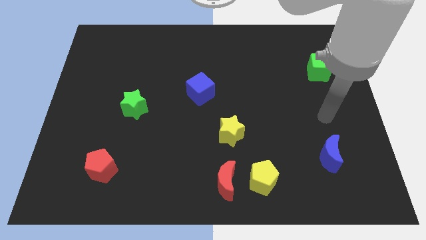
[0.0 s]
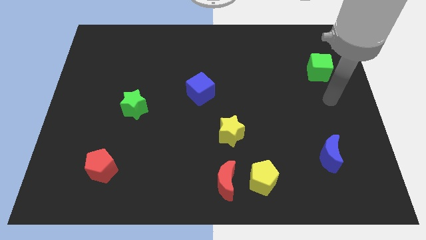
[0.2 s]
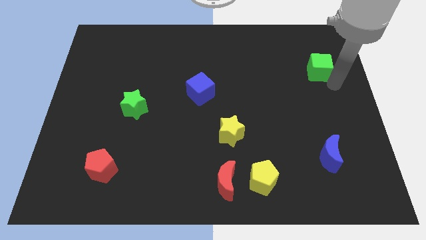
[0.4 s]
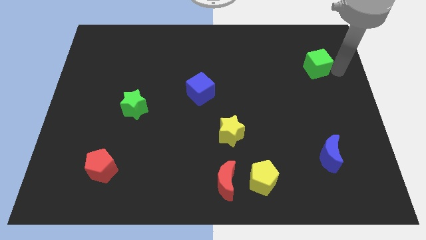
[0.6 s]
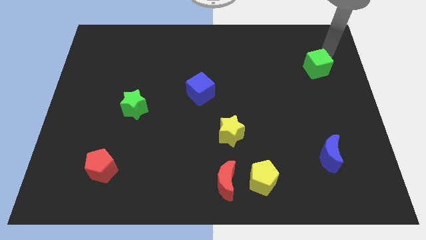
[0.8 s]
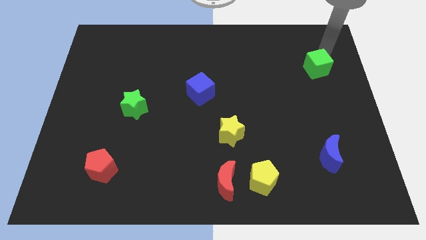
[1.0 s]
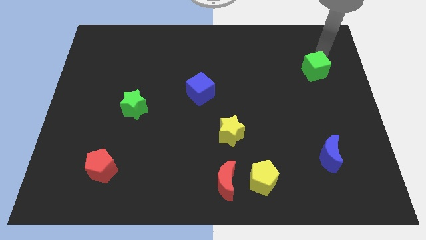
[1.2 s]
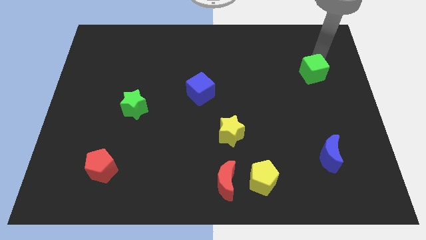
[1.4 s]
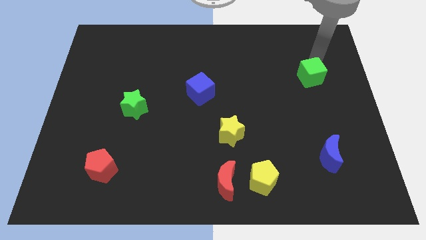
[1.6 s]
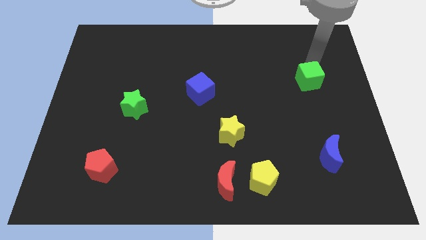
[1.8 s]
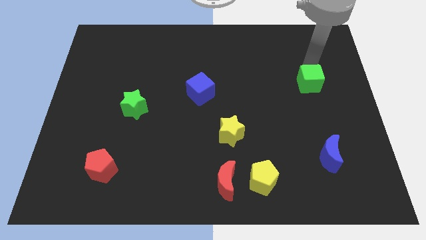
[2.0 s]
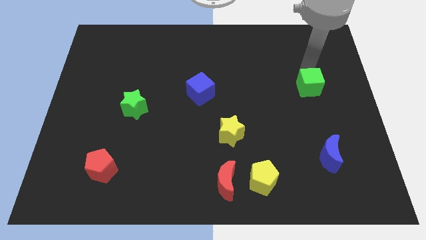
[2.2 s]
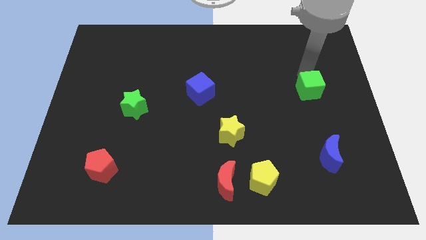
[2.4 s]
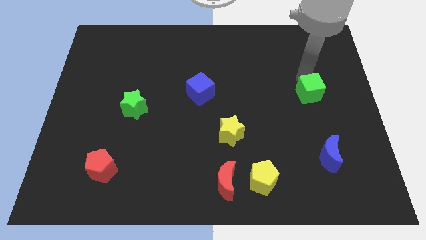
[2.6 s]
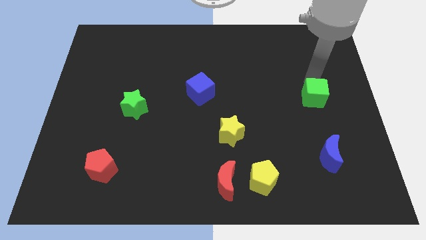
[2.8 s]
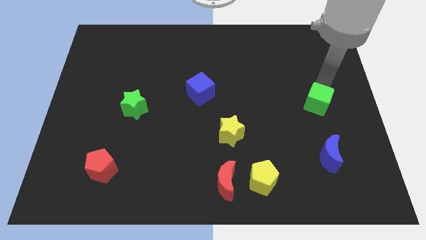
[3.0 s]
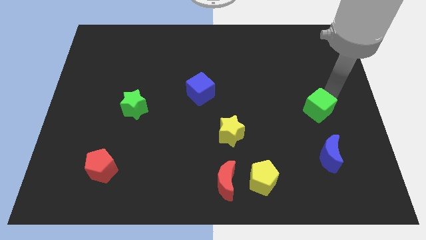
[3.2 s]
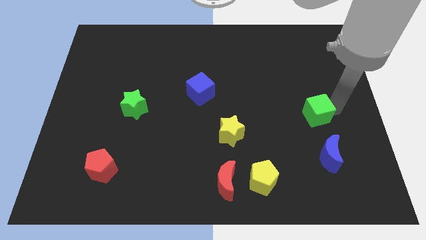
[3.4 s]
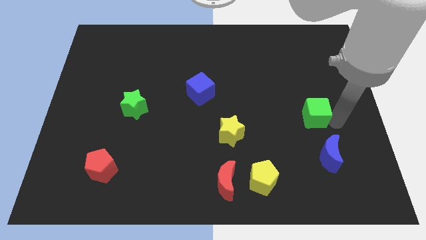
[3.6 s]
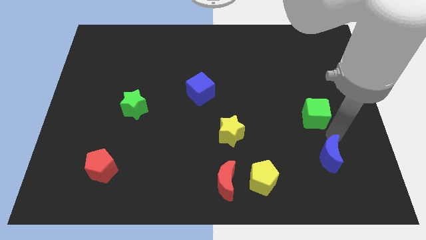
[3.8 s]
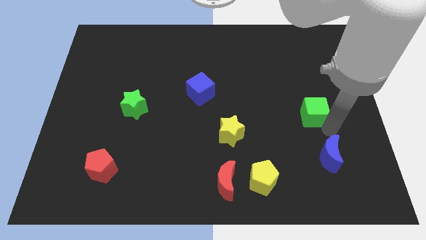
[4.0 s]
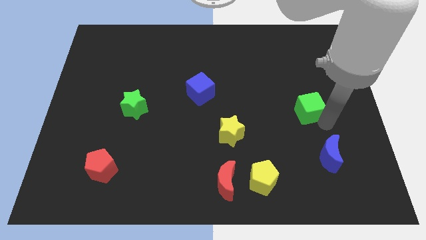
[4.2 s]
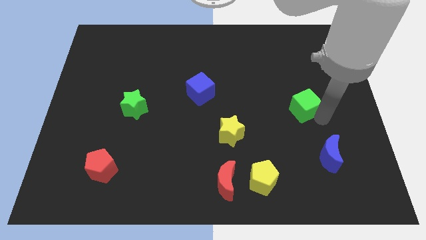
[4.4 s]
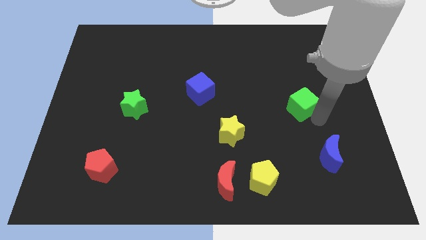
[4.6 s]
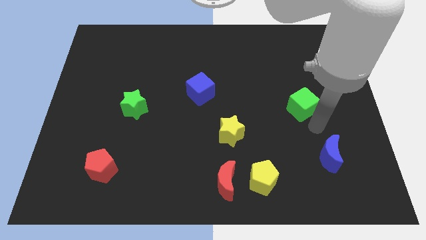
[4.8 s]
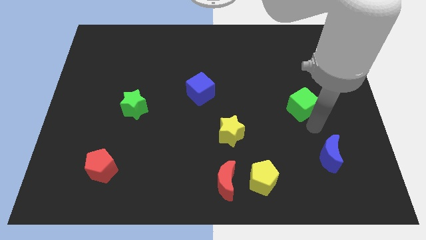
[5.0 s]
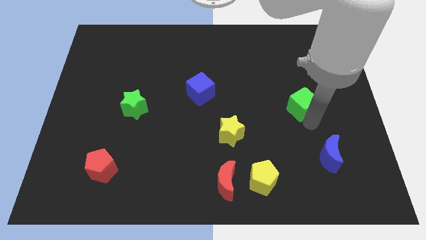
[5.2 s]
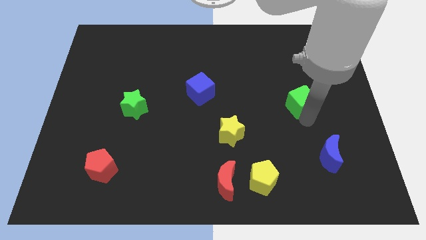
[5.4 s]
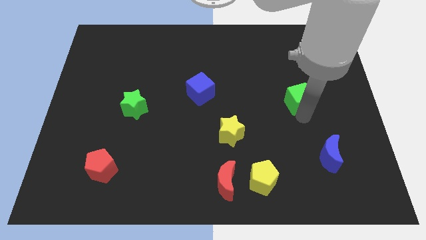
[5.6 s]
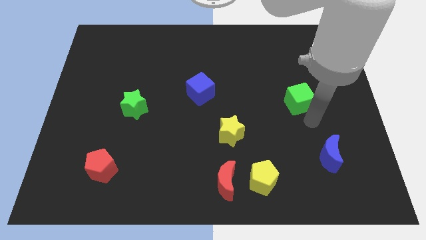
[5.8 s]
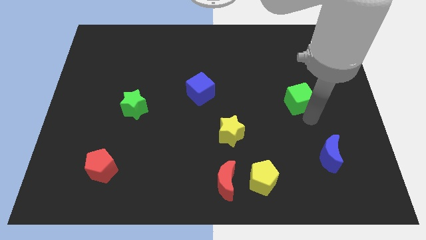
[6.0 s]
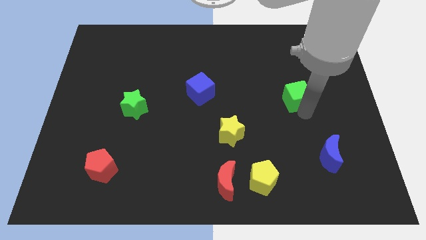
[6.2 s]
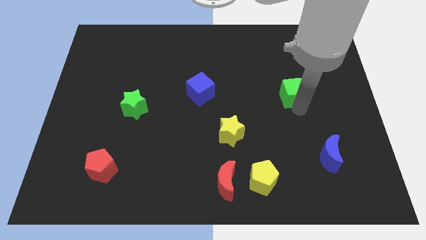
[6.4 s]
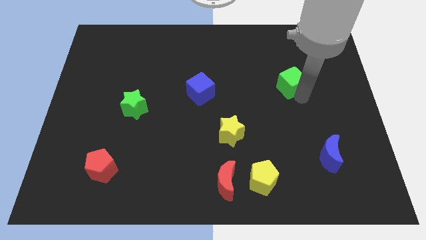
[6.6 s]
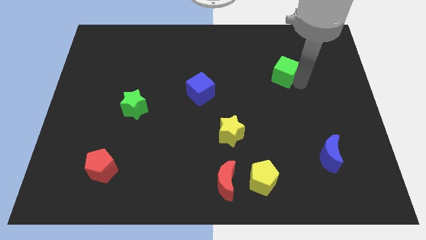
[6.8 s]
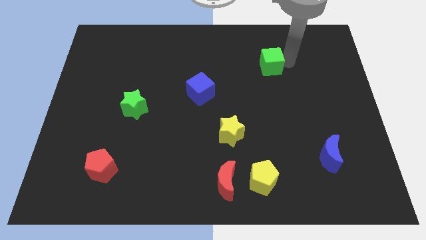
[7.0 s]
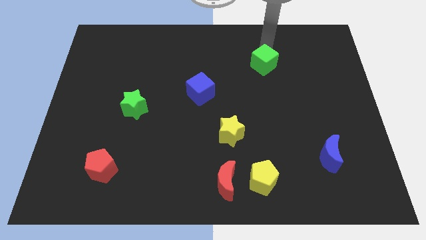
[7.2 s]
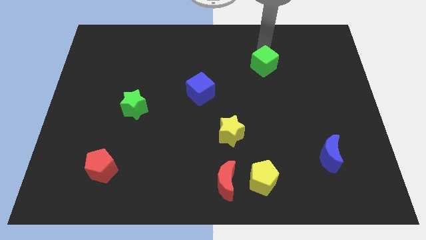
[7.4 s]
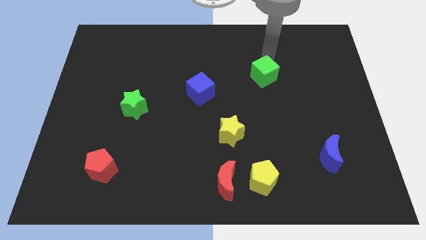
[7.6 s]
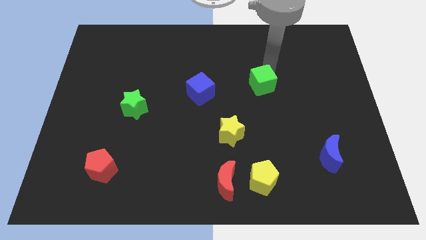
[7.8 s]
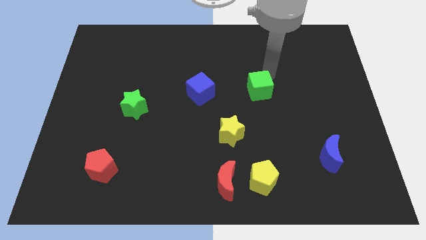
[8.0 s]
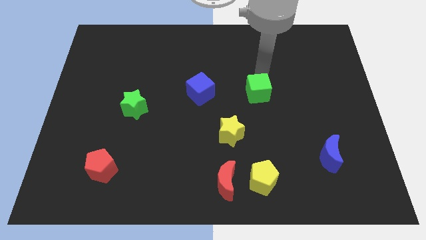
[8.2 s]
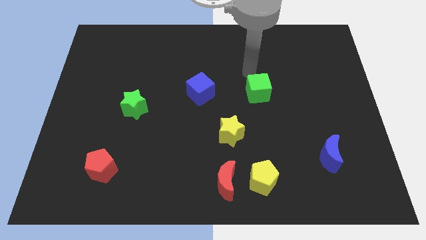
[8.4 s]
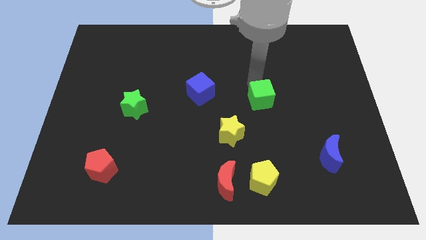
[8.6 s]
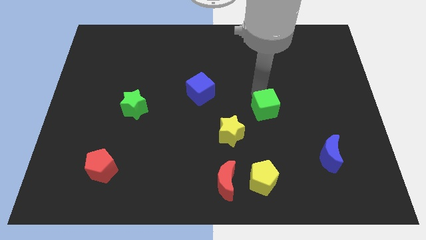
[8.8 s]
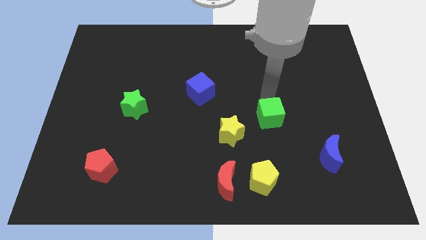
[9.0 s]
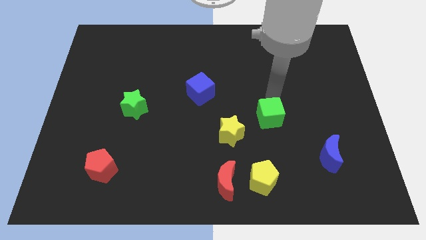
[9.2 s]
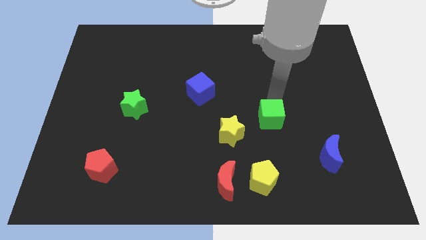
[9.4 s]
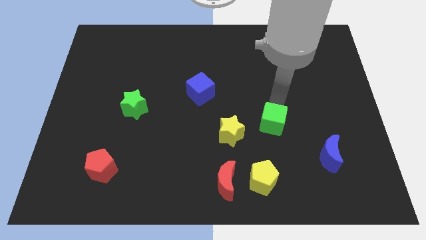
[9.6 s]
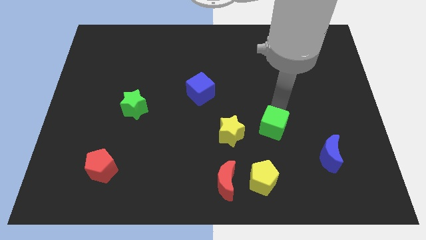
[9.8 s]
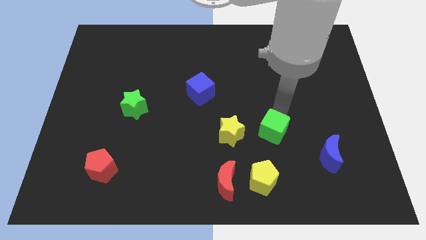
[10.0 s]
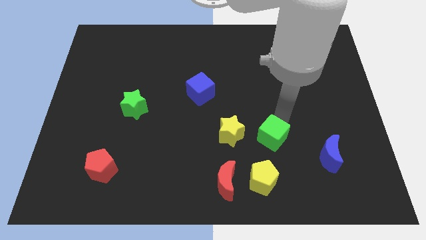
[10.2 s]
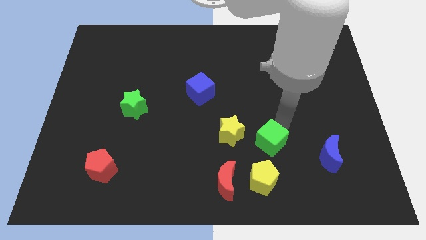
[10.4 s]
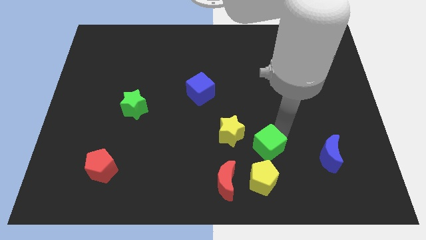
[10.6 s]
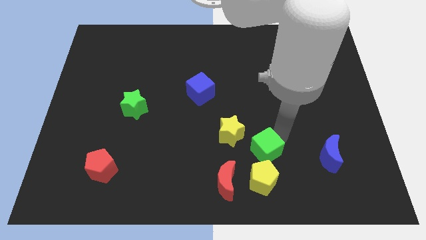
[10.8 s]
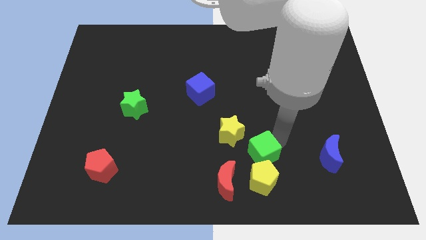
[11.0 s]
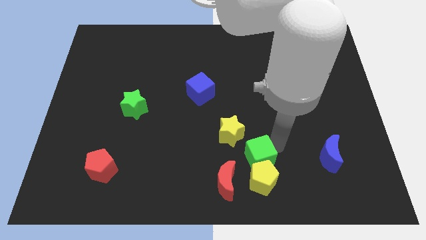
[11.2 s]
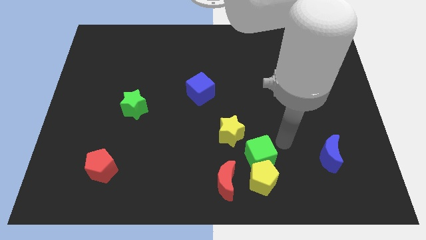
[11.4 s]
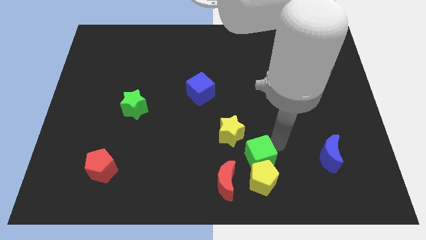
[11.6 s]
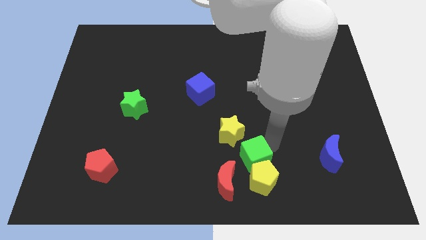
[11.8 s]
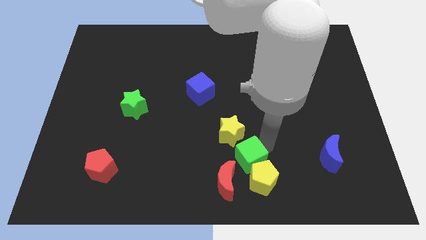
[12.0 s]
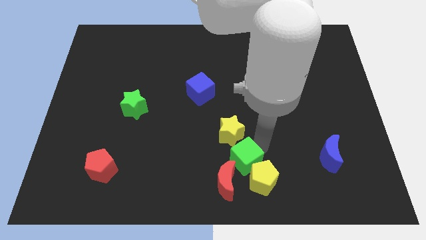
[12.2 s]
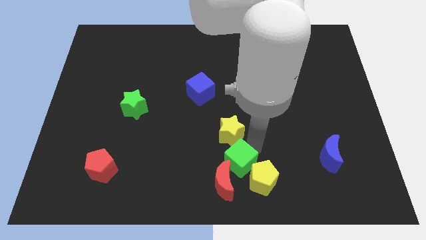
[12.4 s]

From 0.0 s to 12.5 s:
push the green cube towards the red moon

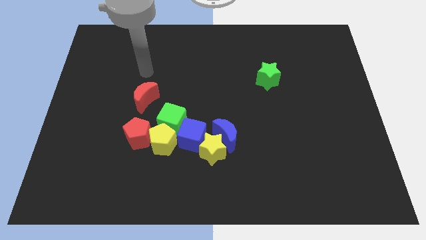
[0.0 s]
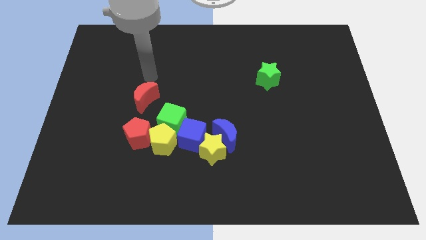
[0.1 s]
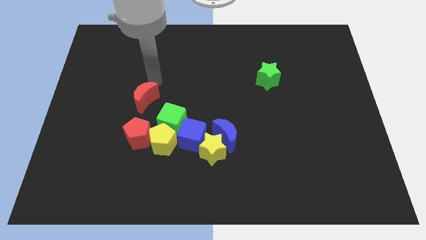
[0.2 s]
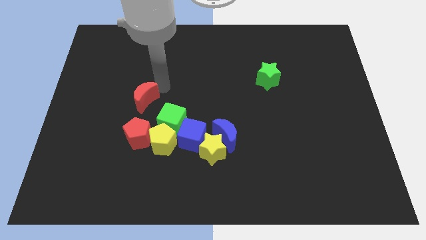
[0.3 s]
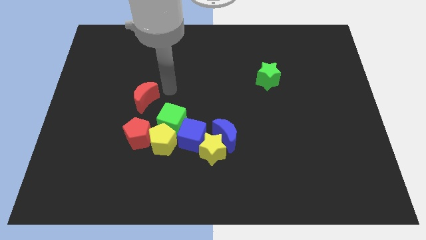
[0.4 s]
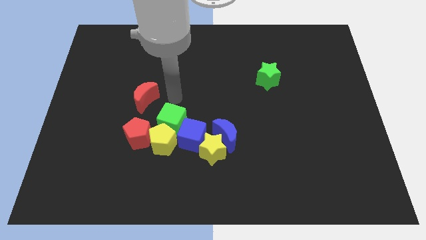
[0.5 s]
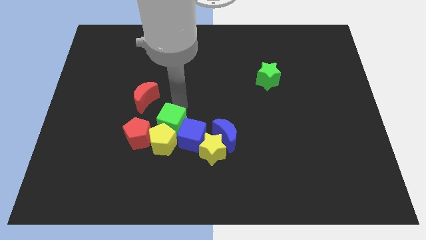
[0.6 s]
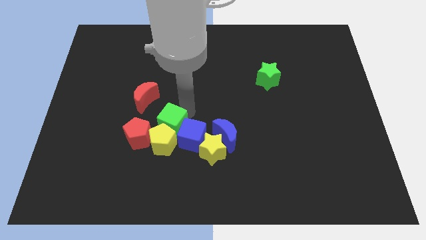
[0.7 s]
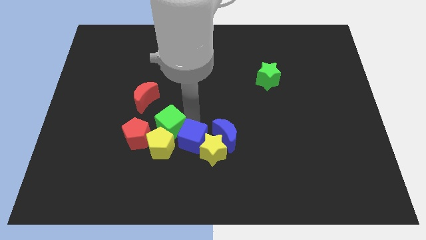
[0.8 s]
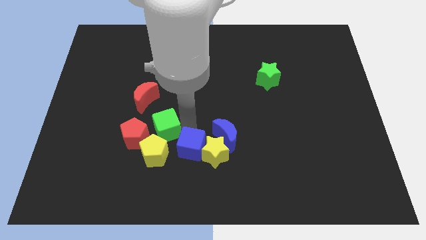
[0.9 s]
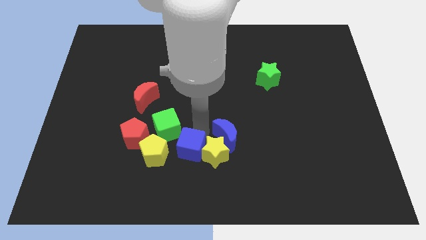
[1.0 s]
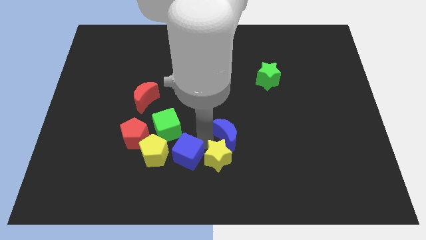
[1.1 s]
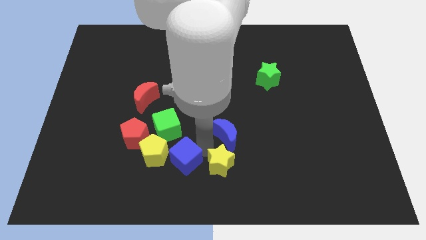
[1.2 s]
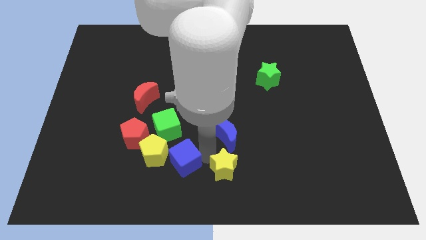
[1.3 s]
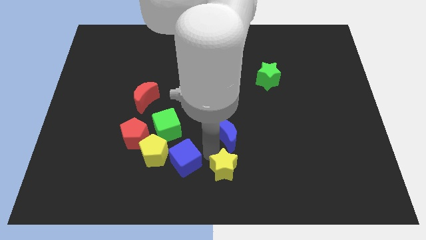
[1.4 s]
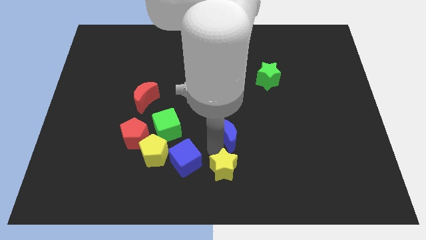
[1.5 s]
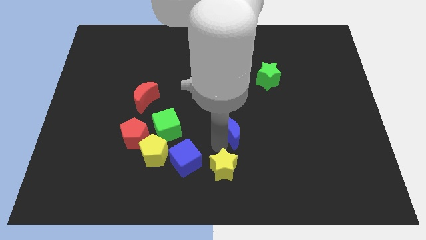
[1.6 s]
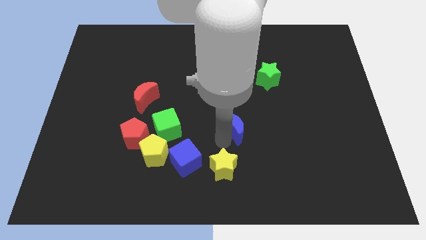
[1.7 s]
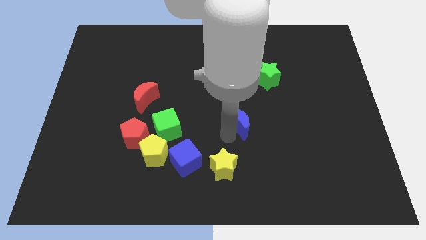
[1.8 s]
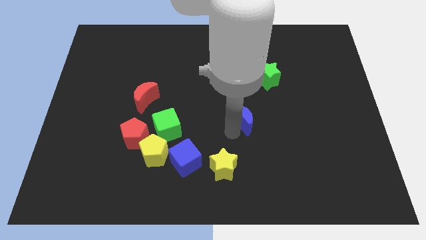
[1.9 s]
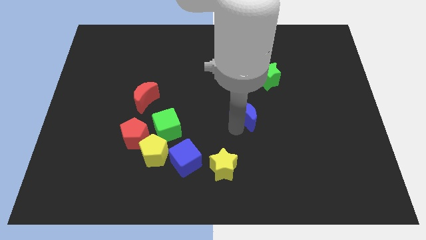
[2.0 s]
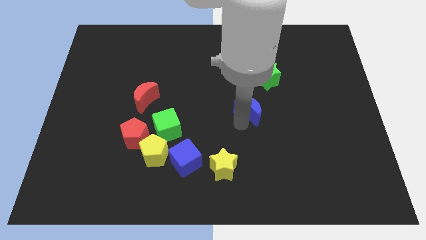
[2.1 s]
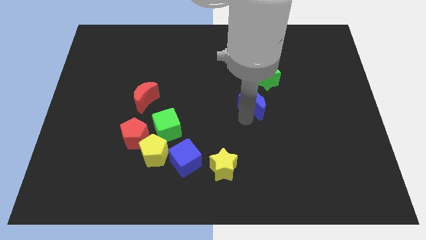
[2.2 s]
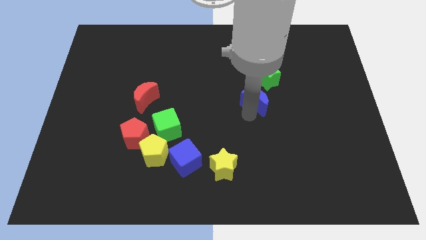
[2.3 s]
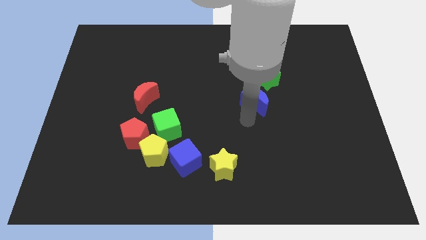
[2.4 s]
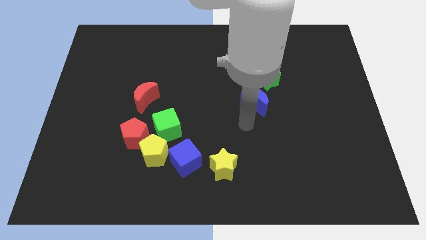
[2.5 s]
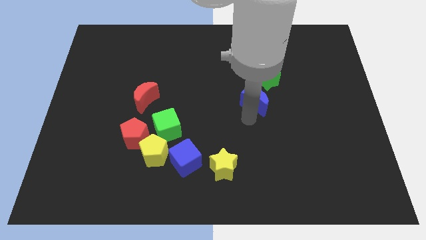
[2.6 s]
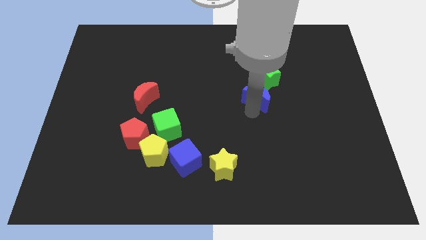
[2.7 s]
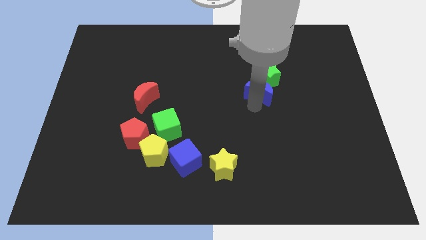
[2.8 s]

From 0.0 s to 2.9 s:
put the blue moon next to the green star
